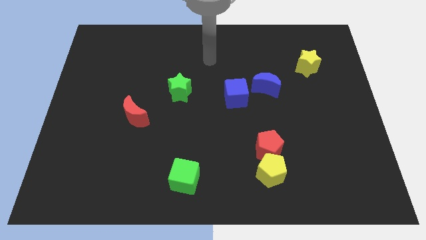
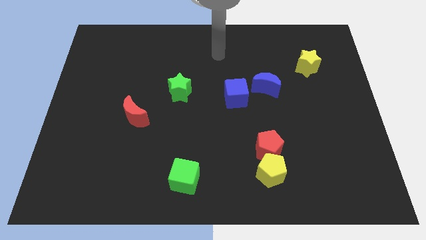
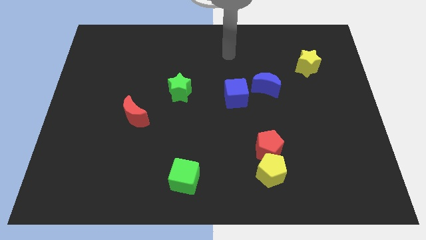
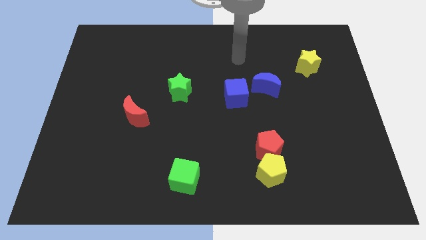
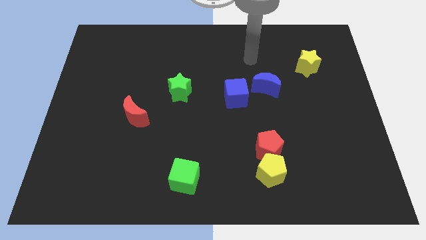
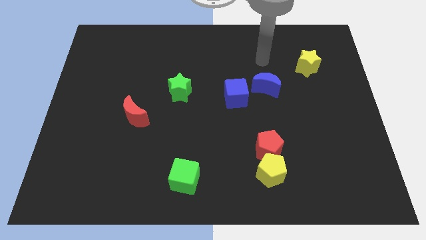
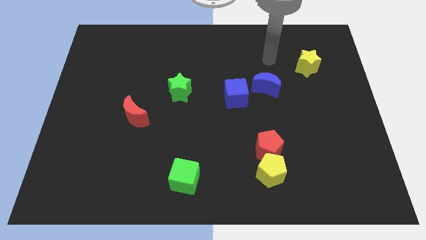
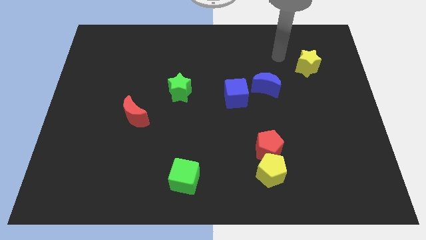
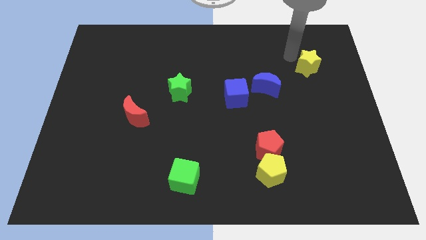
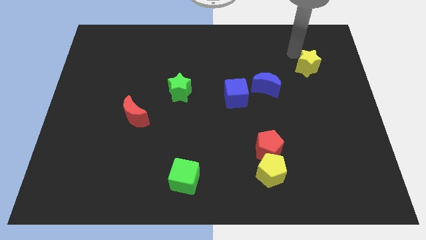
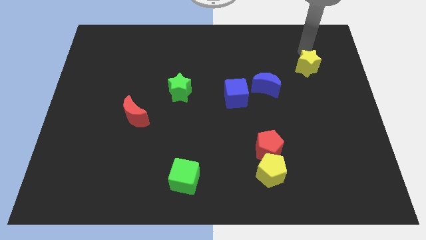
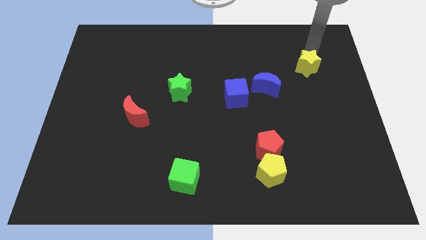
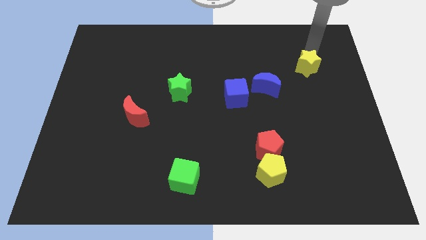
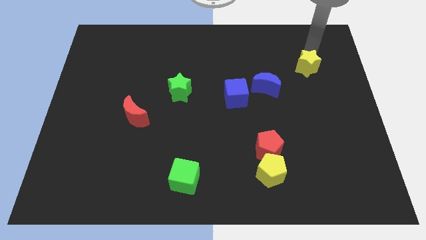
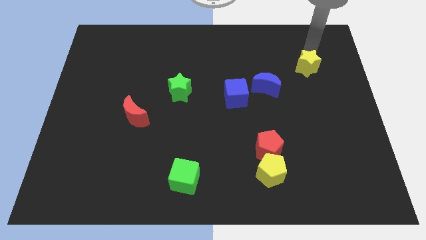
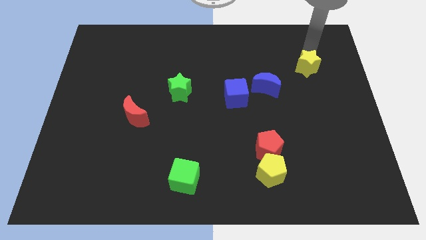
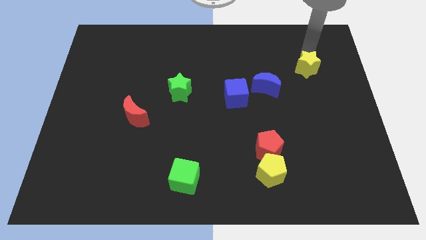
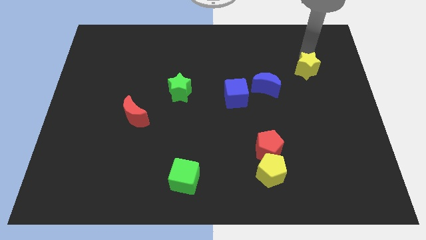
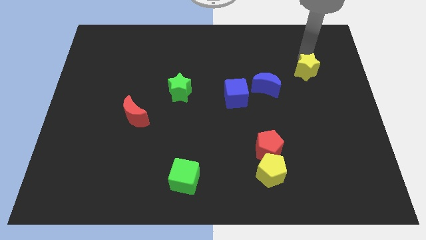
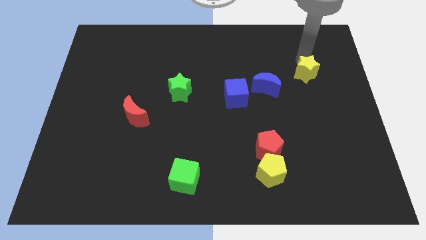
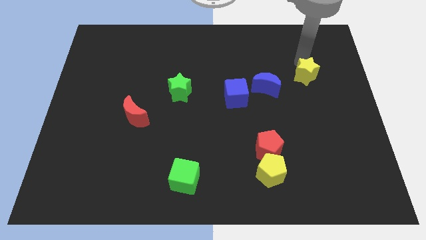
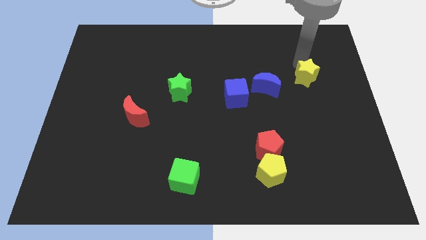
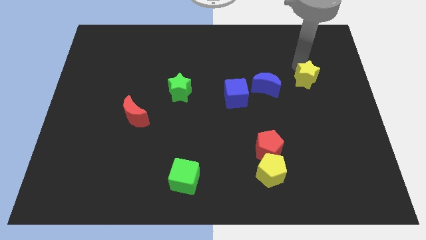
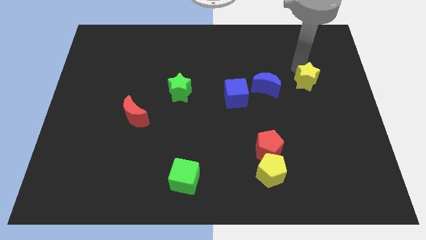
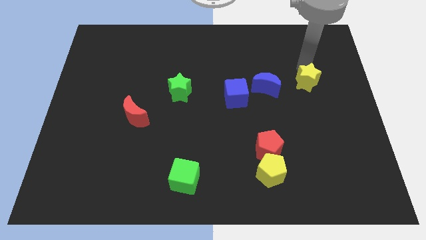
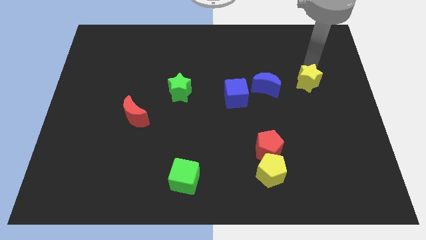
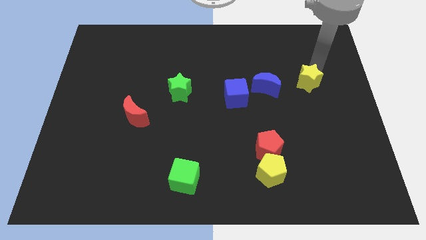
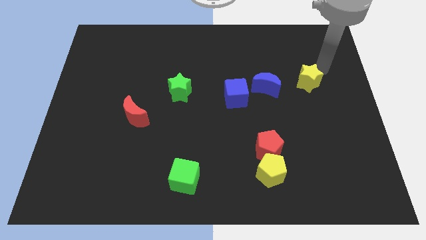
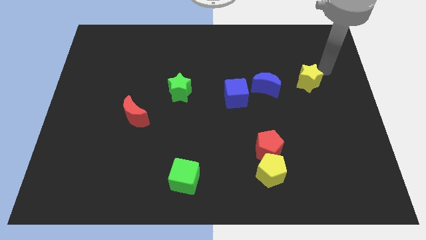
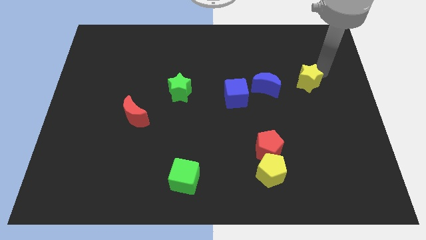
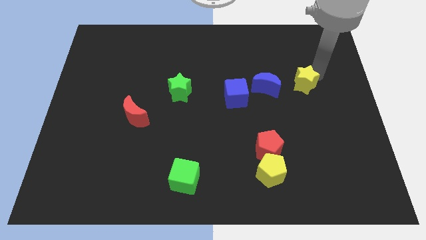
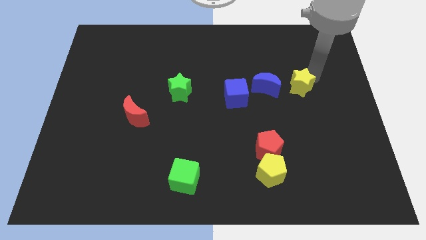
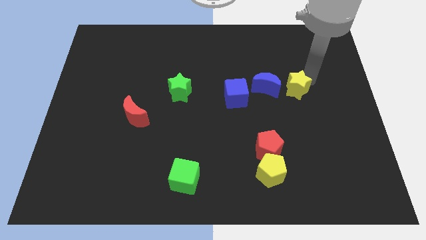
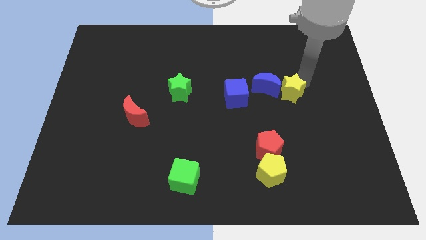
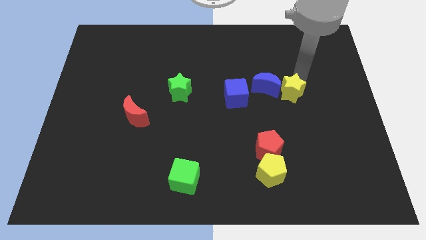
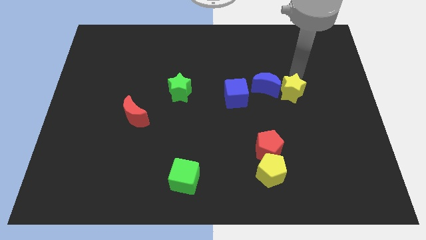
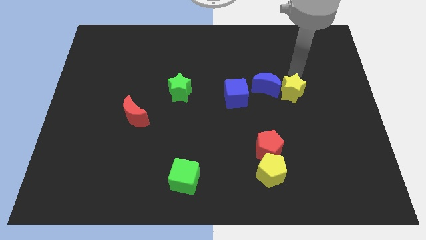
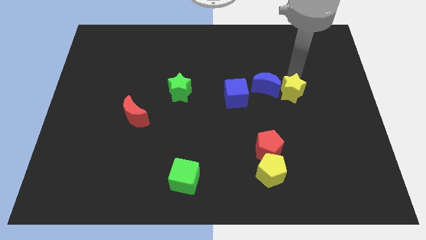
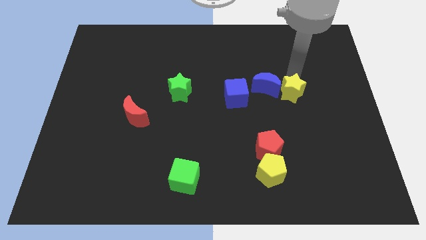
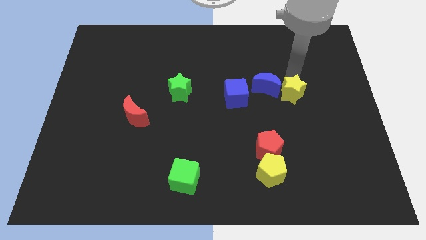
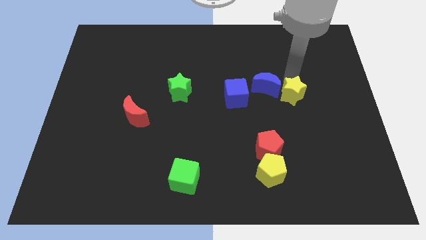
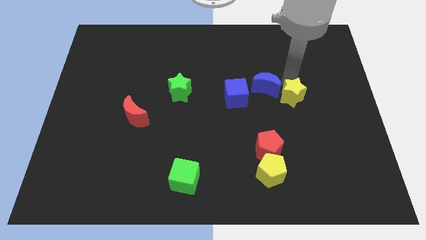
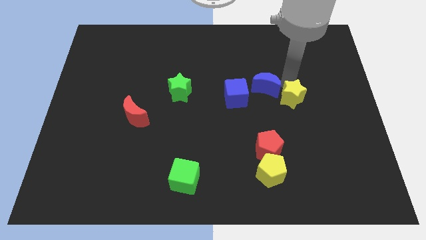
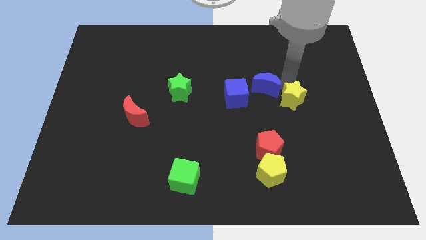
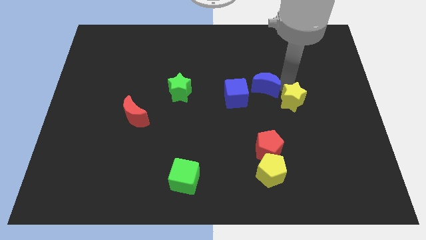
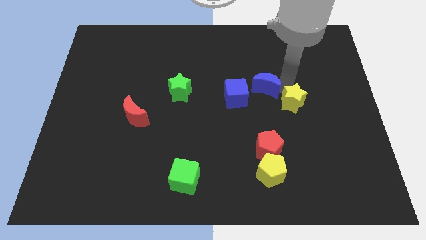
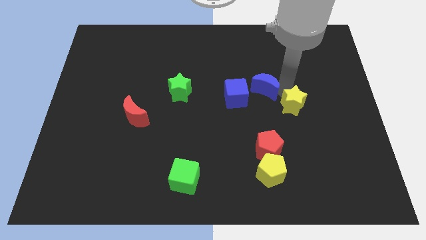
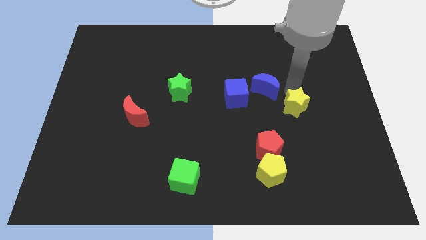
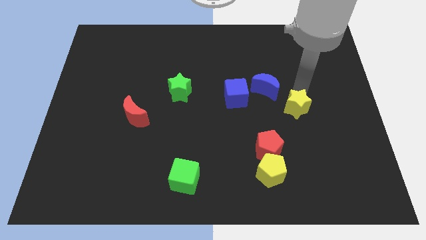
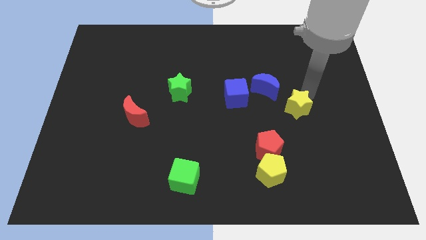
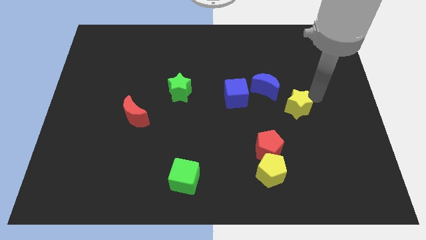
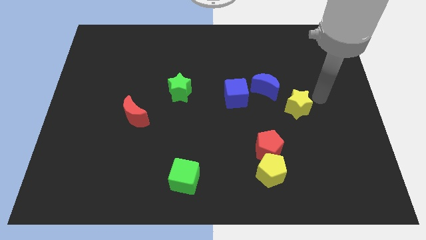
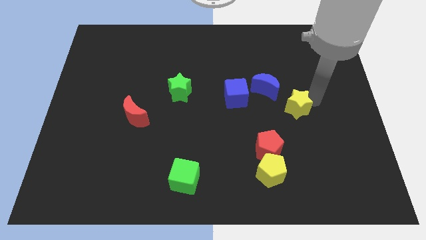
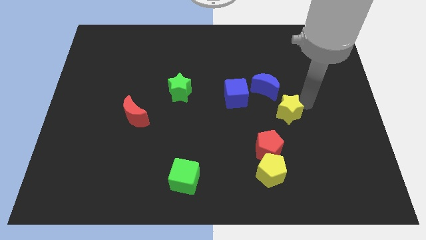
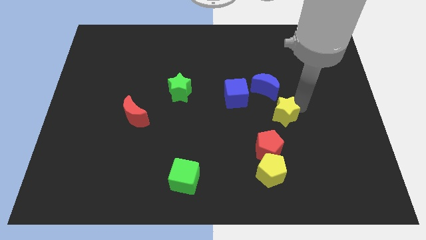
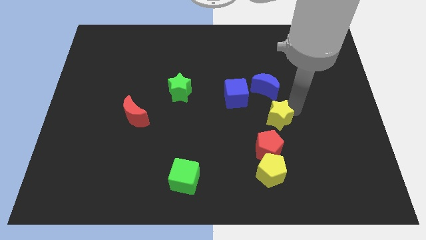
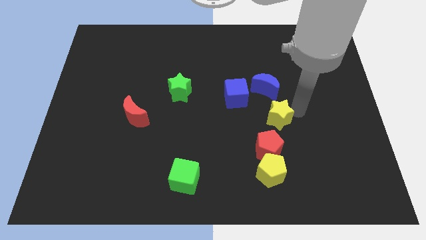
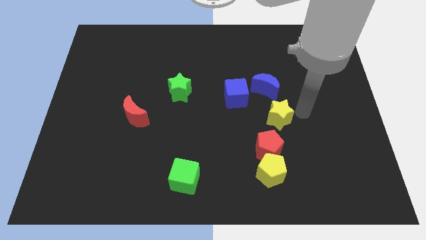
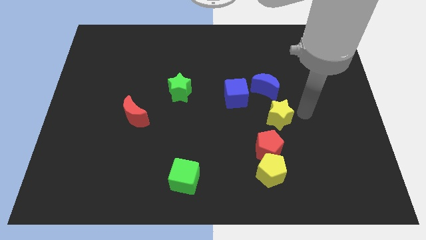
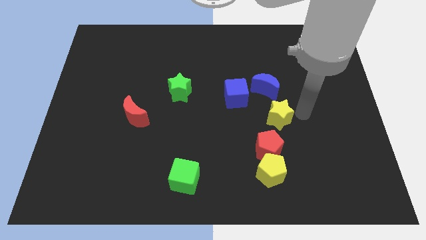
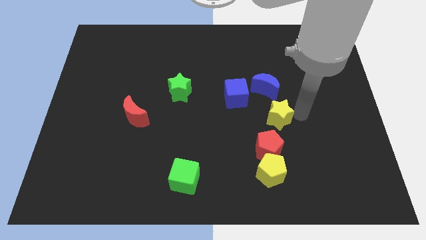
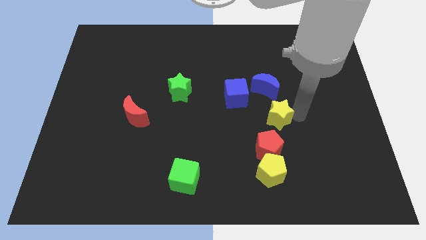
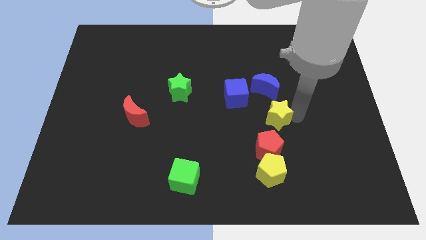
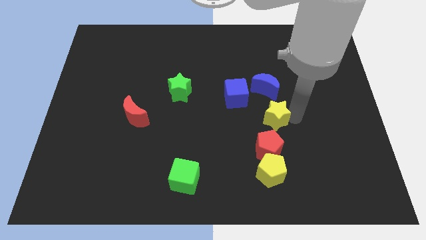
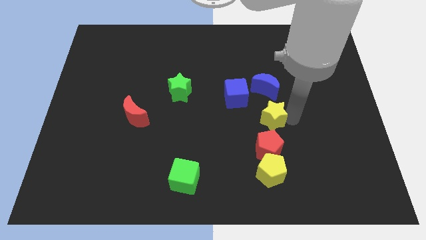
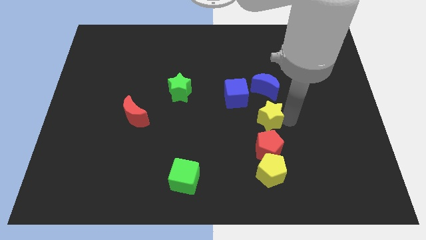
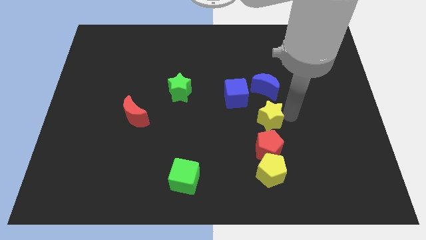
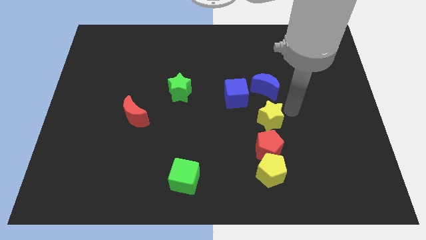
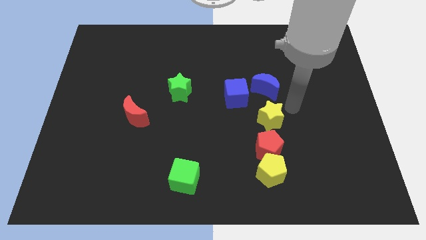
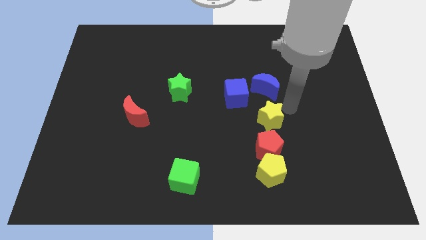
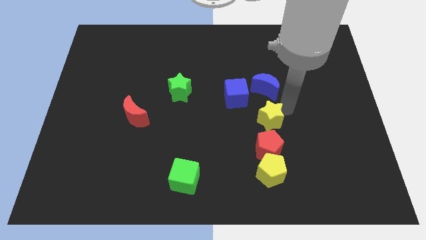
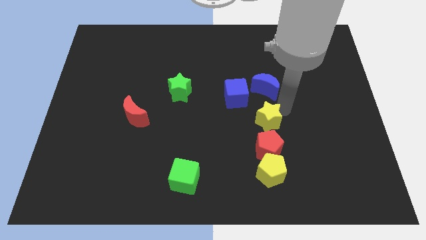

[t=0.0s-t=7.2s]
move the yellow star down and left

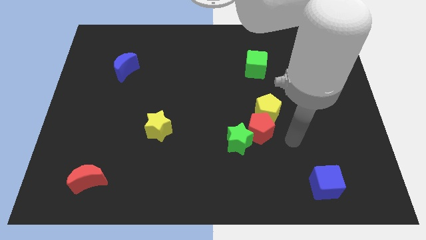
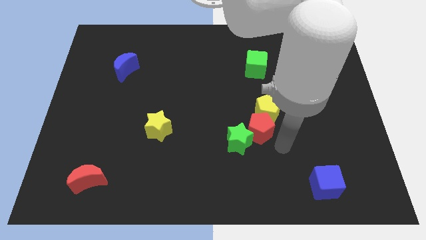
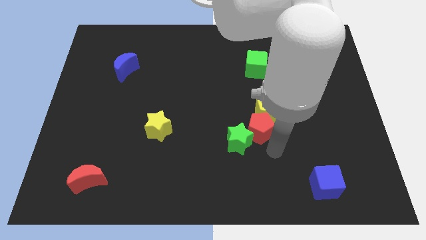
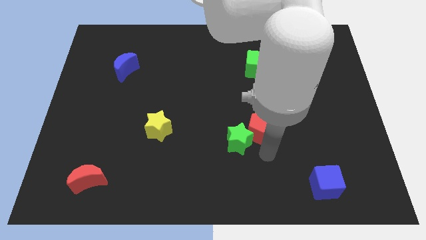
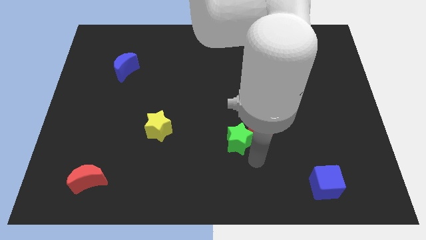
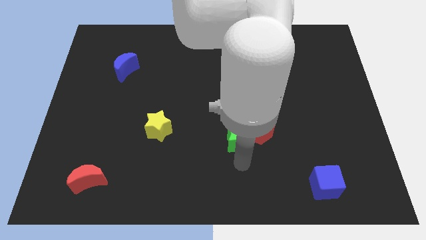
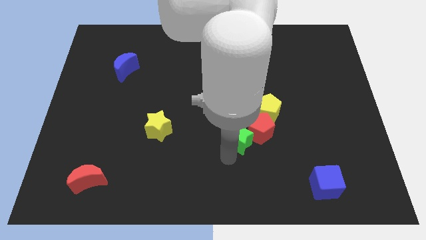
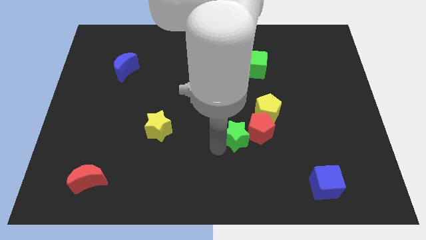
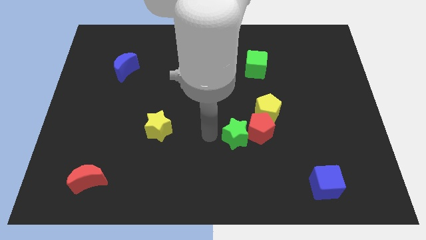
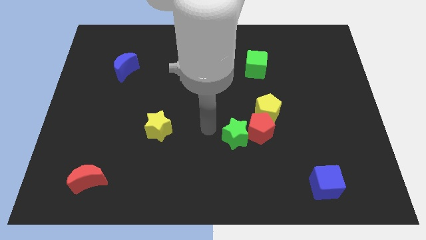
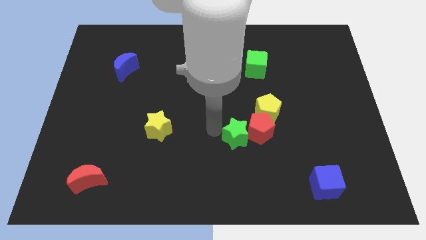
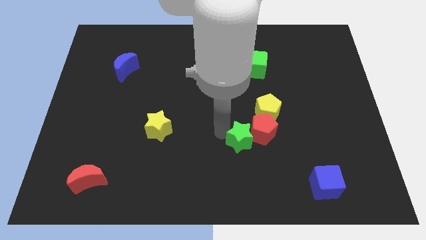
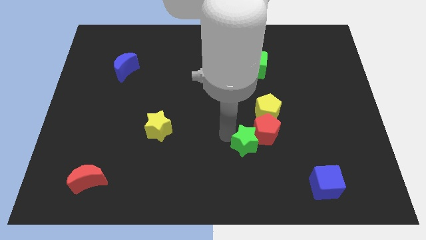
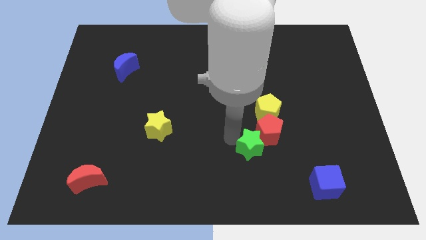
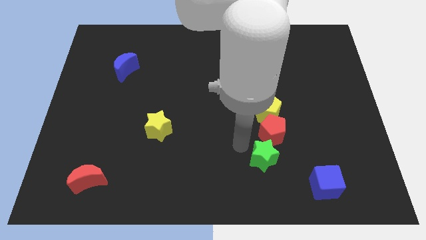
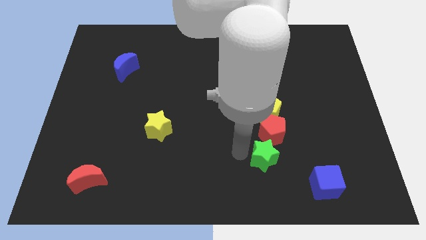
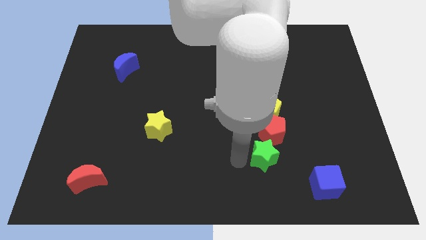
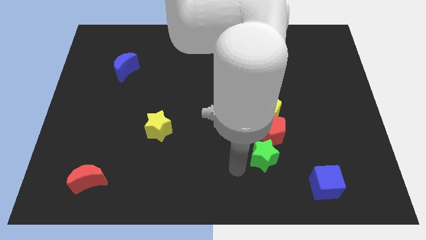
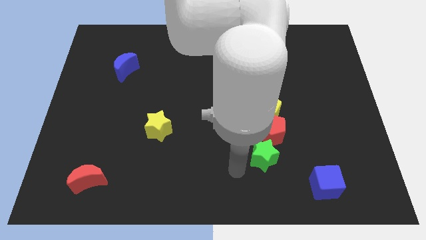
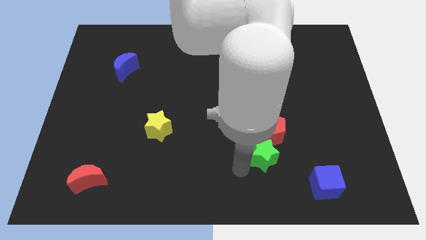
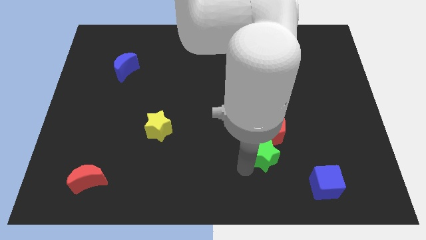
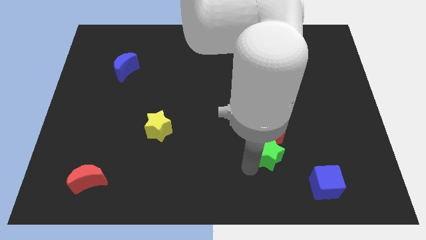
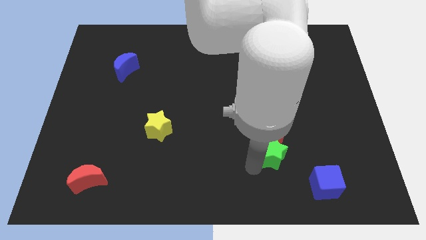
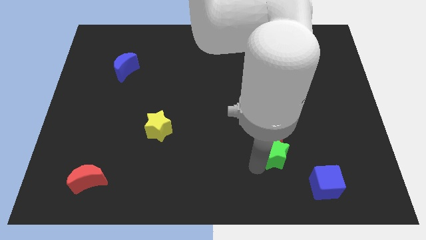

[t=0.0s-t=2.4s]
slightly move the green star right
